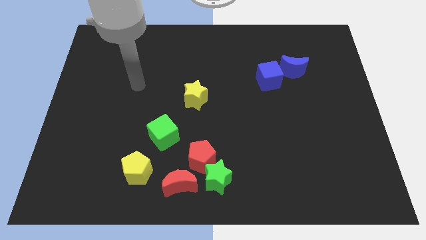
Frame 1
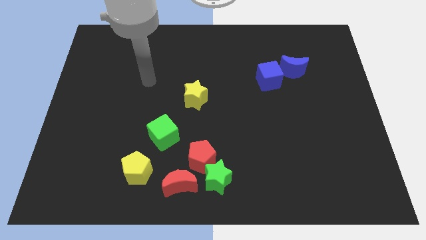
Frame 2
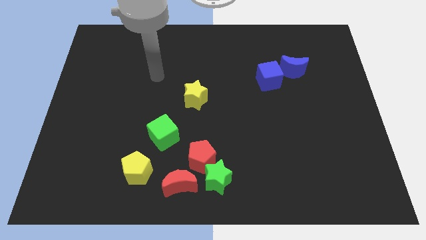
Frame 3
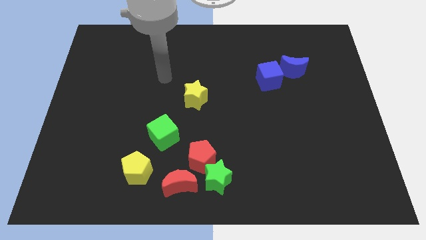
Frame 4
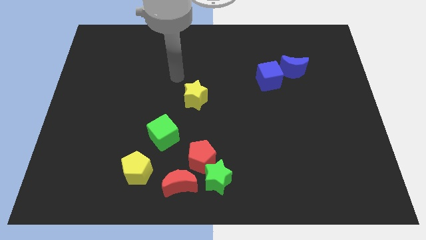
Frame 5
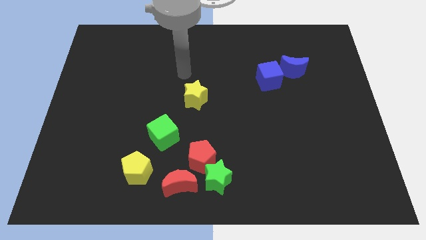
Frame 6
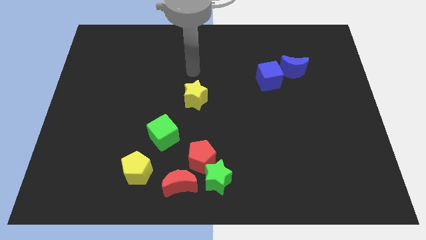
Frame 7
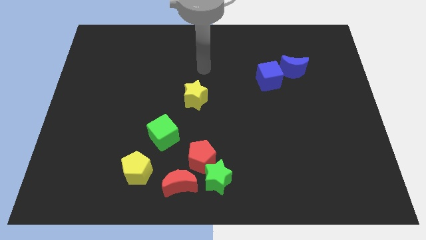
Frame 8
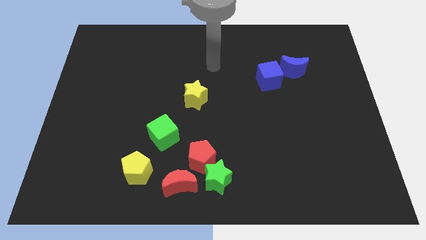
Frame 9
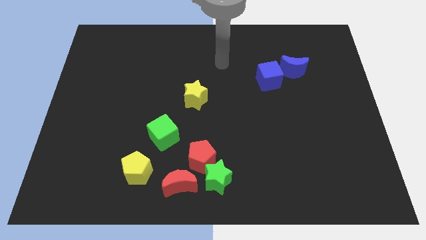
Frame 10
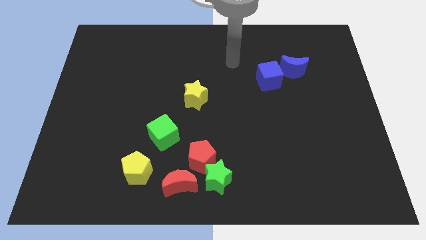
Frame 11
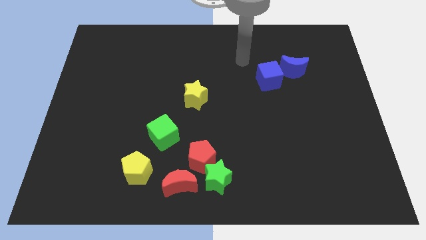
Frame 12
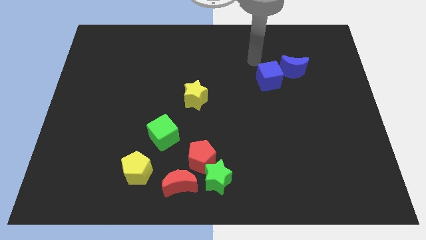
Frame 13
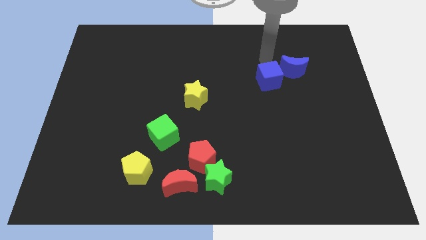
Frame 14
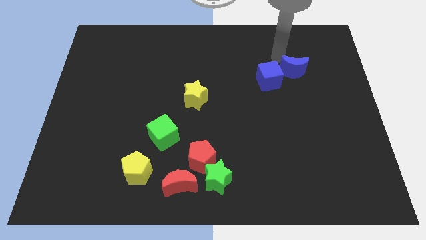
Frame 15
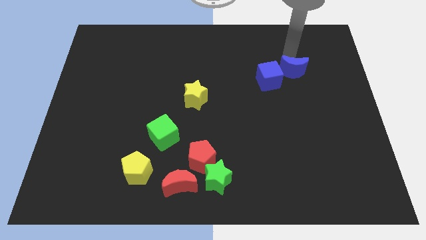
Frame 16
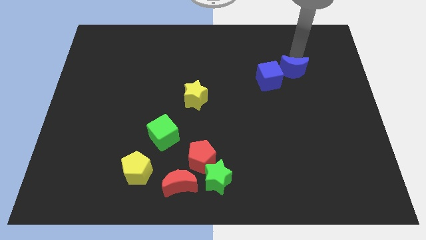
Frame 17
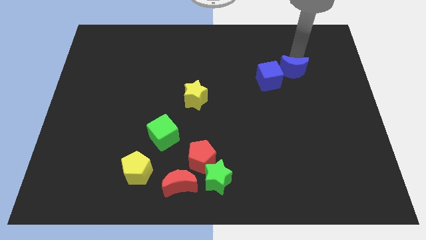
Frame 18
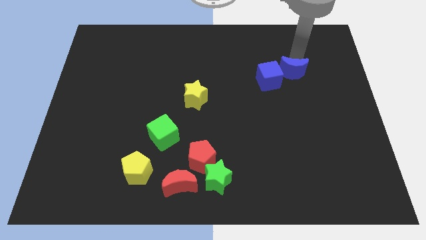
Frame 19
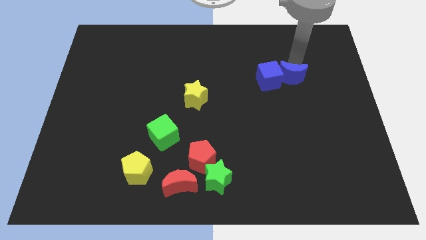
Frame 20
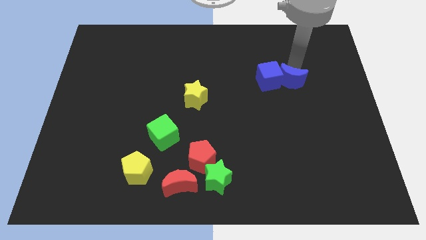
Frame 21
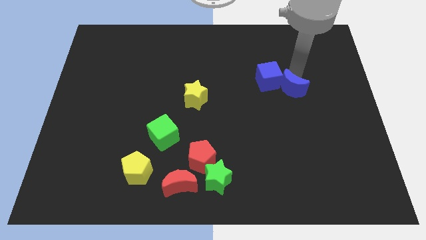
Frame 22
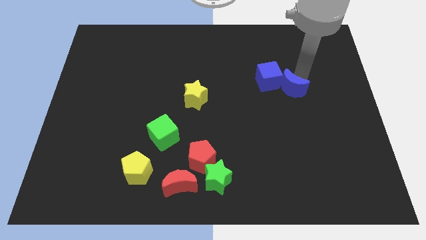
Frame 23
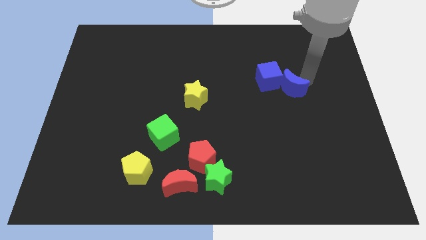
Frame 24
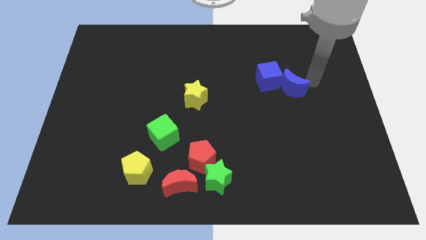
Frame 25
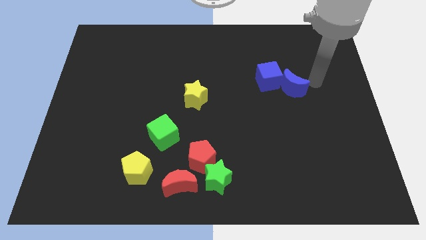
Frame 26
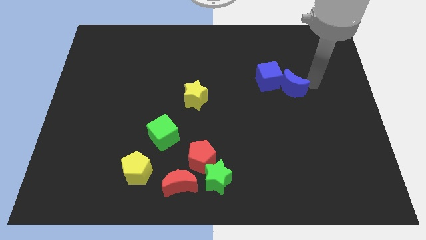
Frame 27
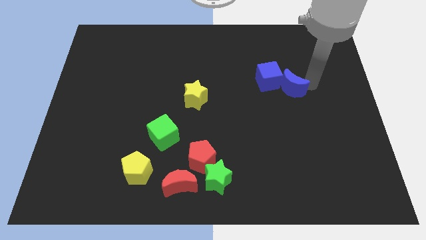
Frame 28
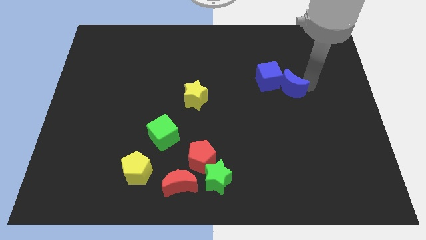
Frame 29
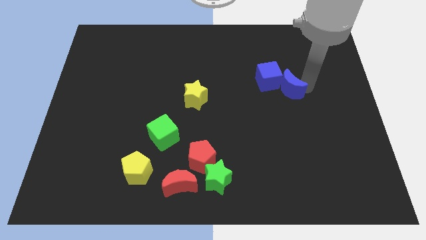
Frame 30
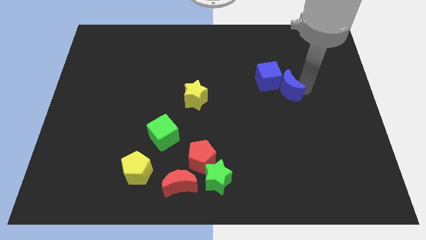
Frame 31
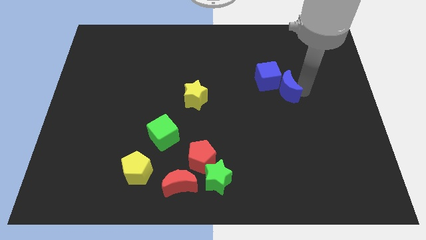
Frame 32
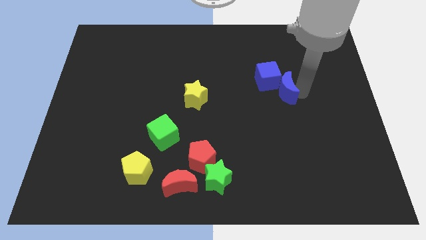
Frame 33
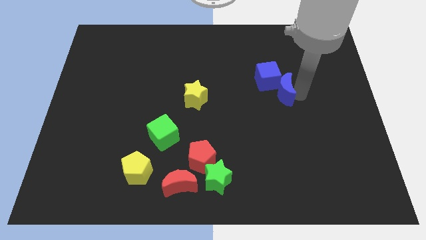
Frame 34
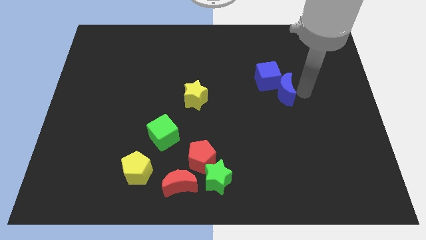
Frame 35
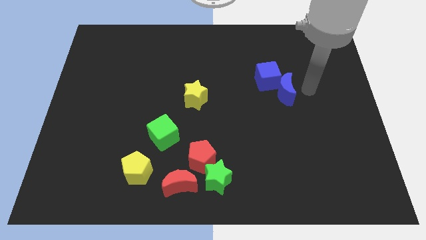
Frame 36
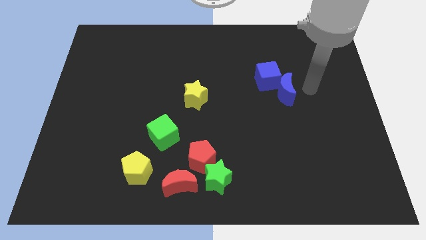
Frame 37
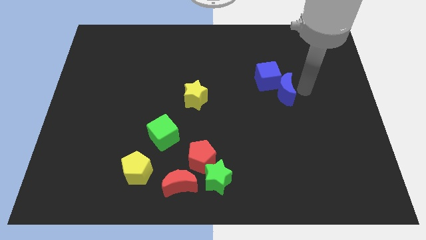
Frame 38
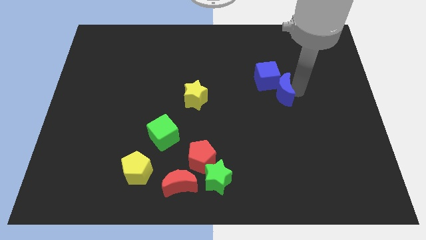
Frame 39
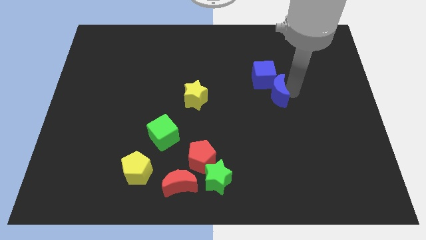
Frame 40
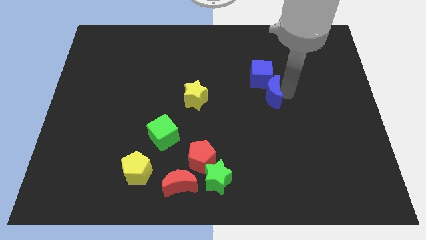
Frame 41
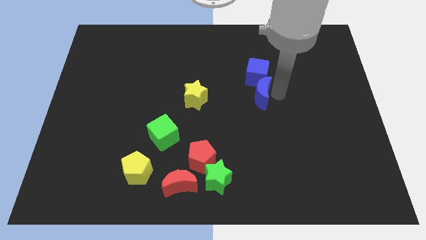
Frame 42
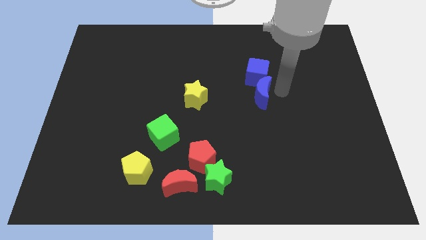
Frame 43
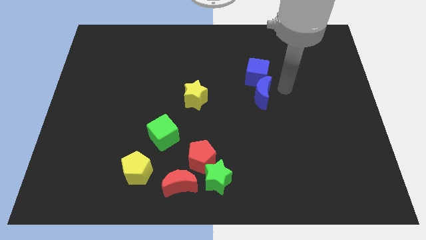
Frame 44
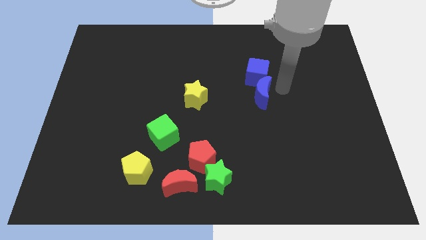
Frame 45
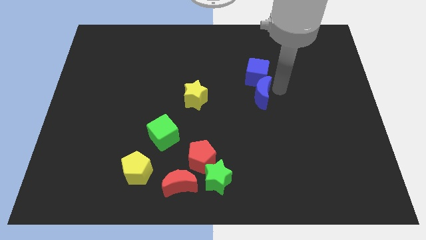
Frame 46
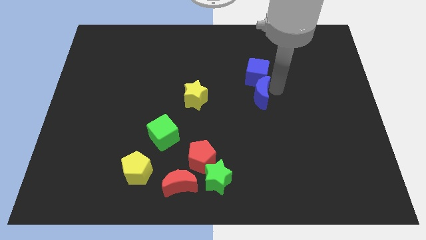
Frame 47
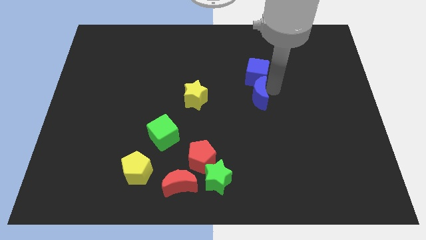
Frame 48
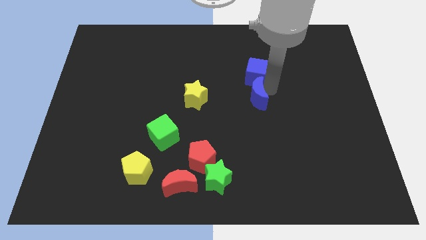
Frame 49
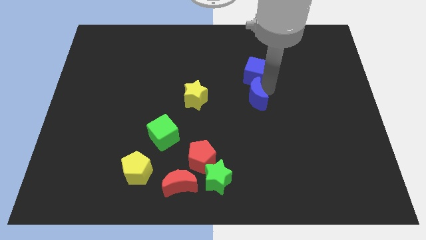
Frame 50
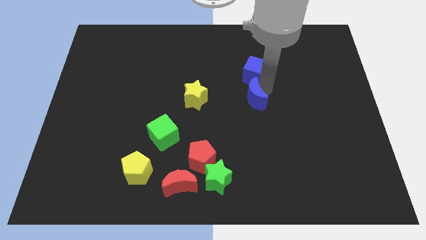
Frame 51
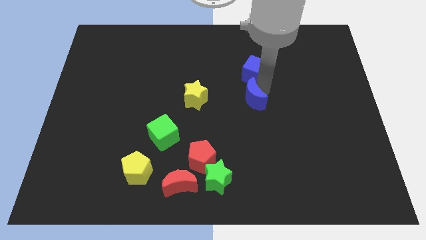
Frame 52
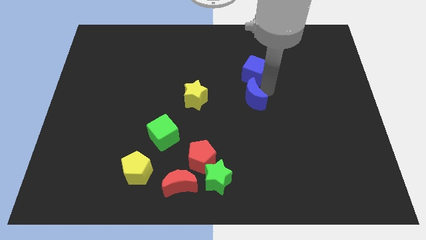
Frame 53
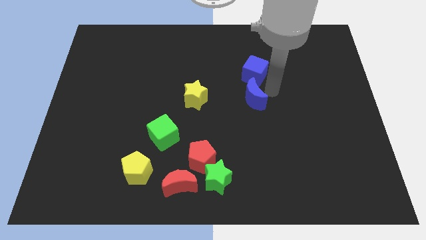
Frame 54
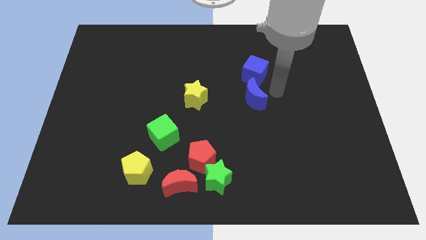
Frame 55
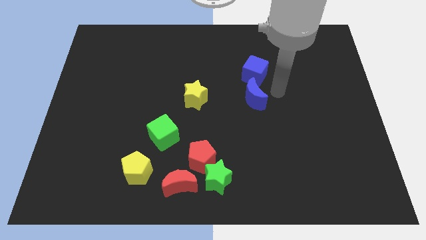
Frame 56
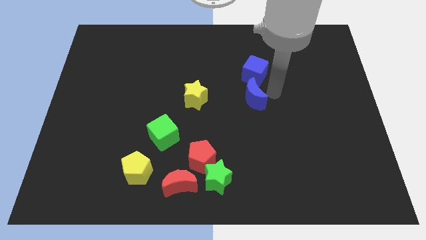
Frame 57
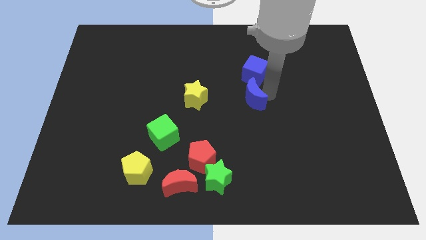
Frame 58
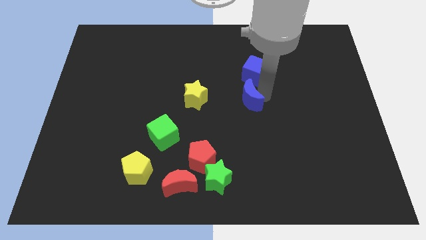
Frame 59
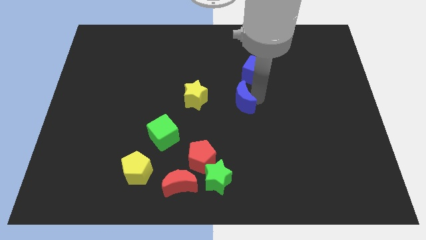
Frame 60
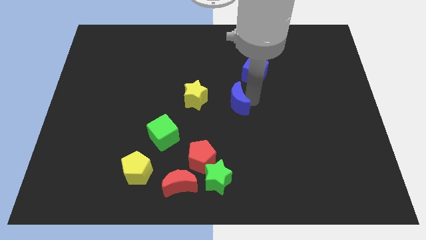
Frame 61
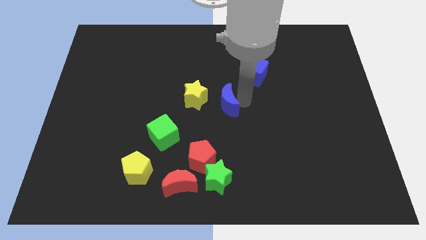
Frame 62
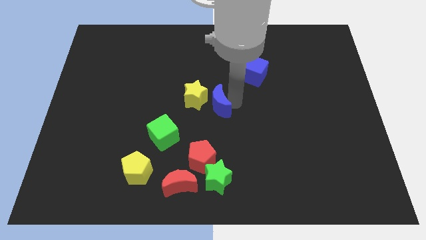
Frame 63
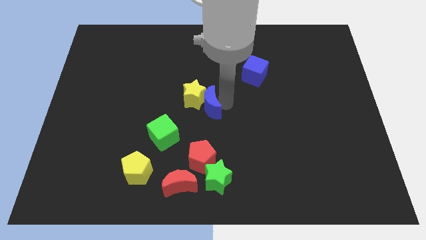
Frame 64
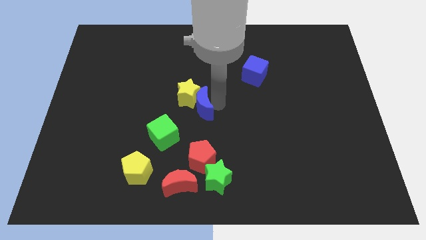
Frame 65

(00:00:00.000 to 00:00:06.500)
push the blue moon to the top right side of the green cube
